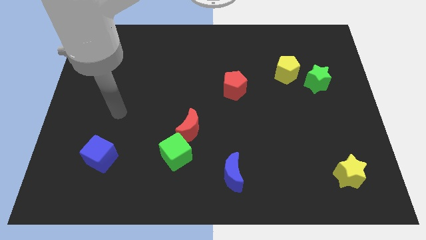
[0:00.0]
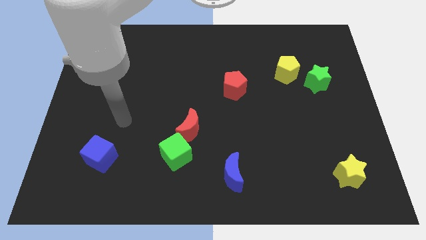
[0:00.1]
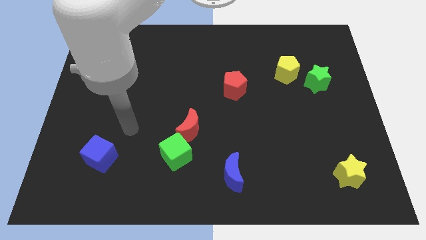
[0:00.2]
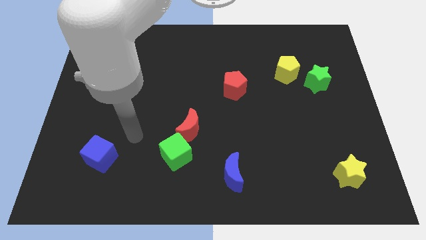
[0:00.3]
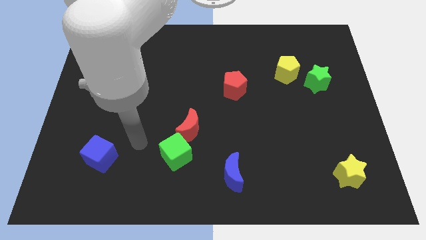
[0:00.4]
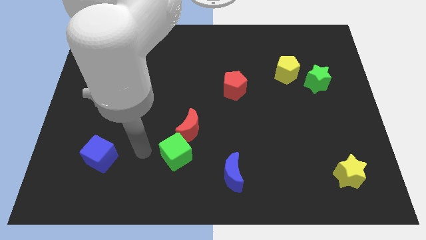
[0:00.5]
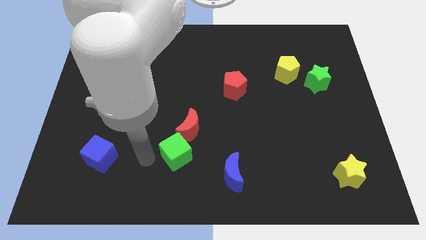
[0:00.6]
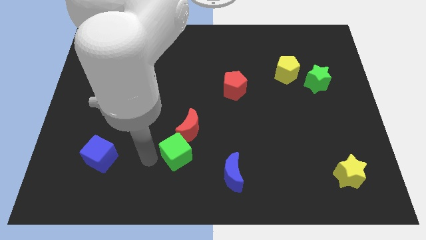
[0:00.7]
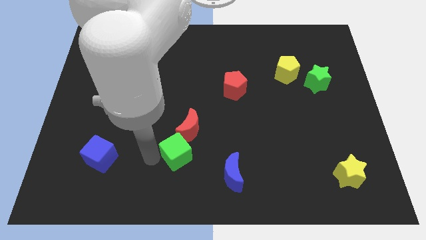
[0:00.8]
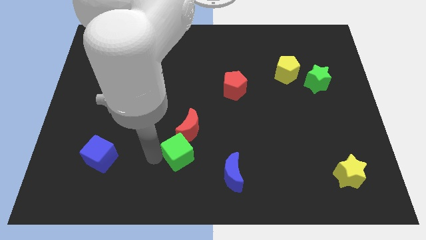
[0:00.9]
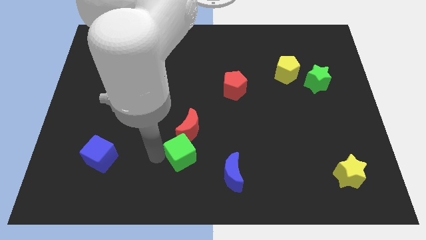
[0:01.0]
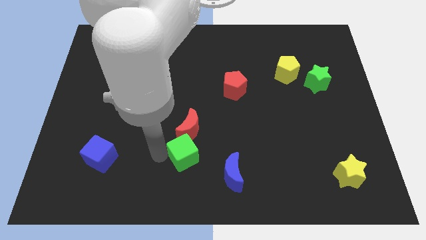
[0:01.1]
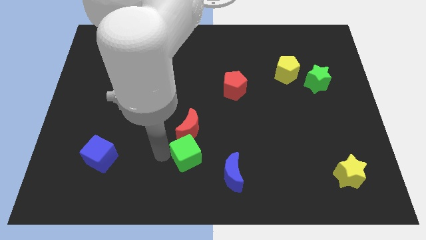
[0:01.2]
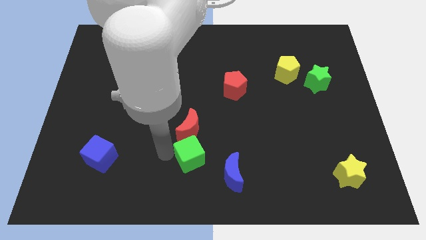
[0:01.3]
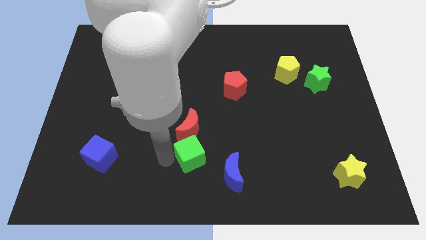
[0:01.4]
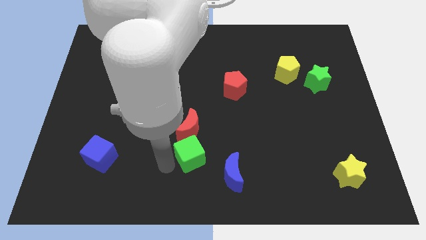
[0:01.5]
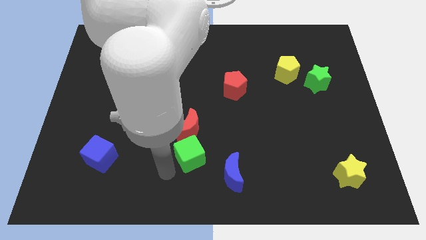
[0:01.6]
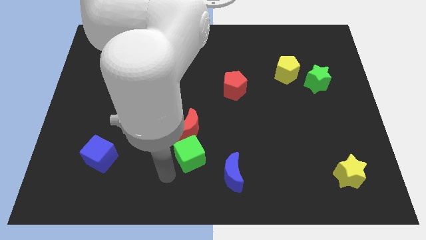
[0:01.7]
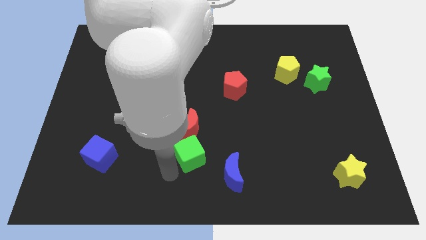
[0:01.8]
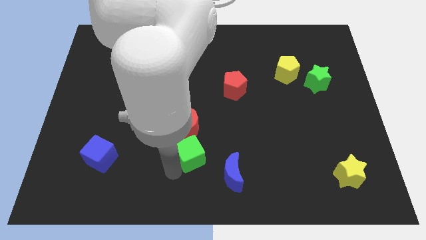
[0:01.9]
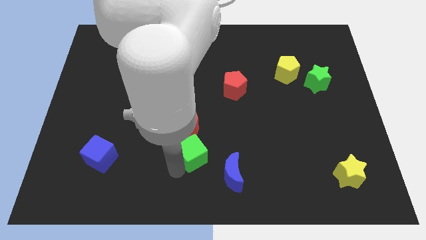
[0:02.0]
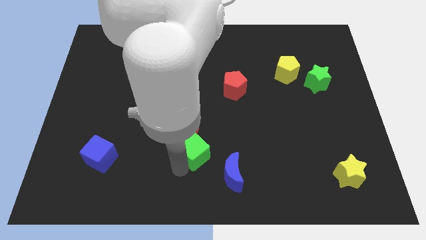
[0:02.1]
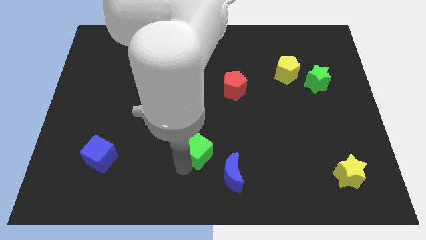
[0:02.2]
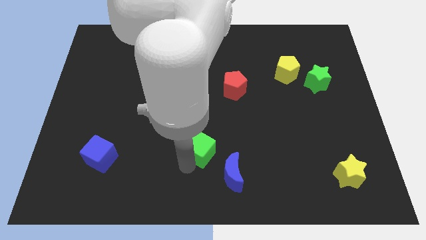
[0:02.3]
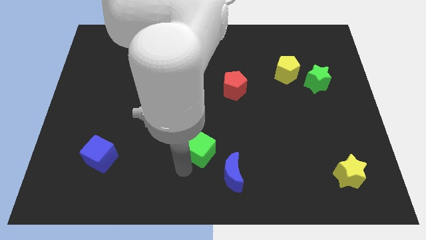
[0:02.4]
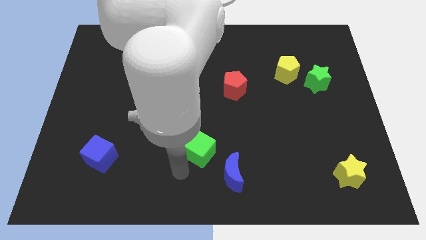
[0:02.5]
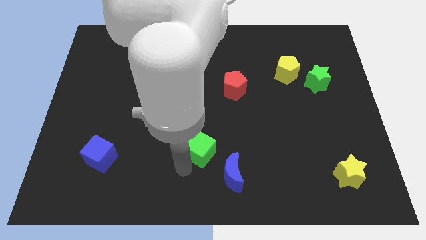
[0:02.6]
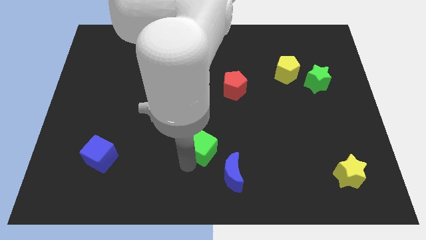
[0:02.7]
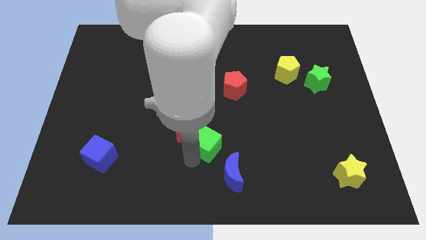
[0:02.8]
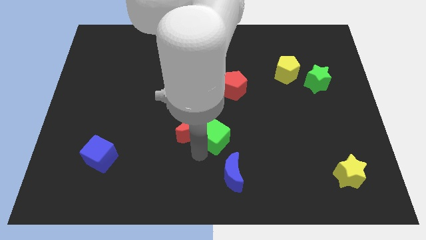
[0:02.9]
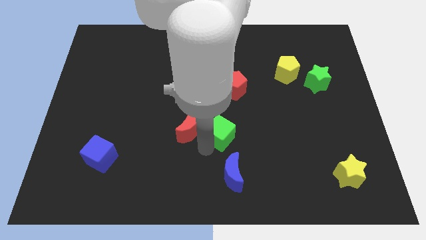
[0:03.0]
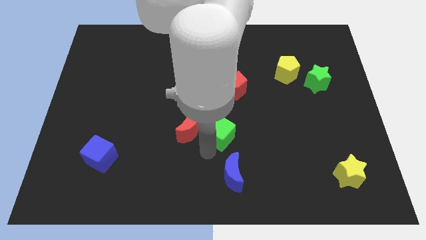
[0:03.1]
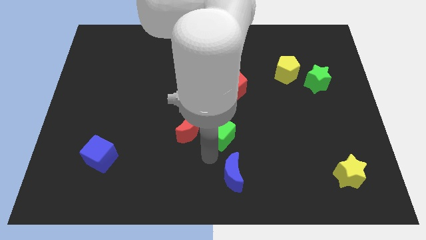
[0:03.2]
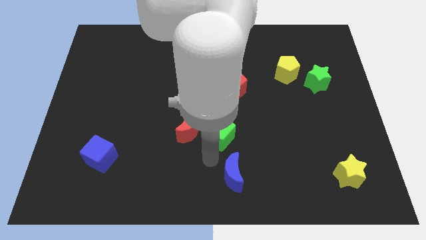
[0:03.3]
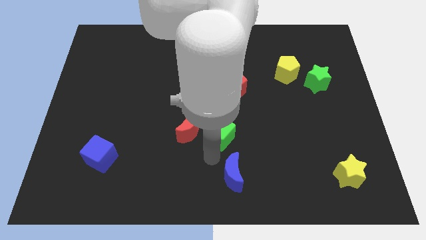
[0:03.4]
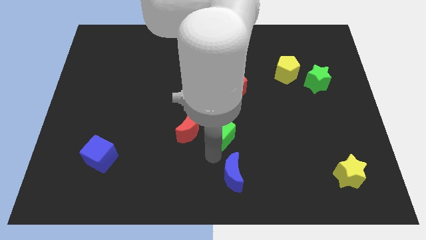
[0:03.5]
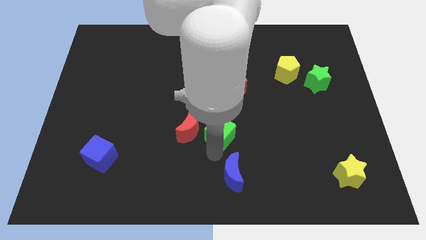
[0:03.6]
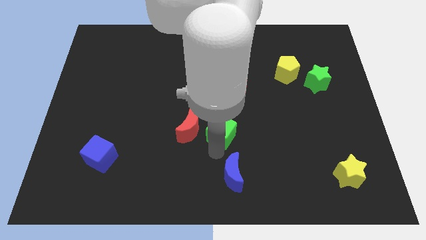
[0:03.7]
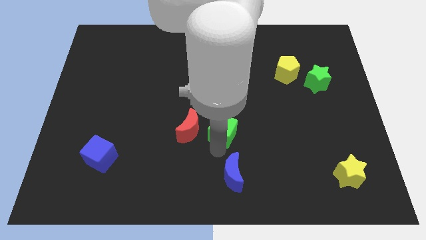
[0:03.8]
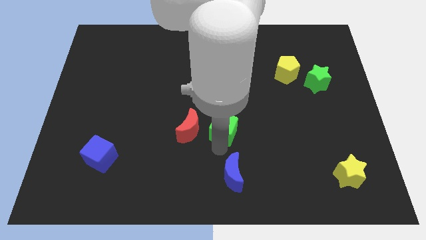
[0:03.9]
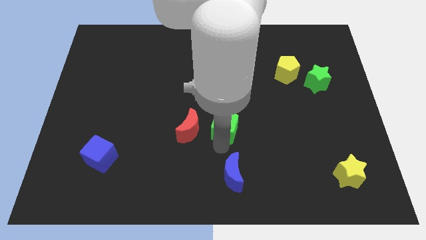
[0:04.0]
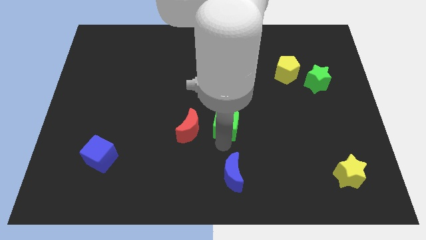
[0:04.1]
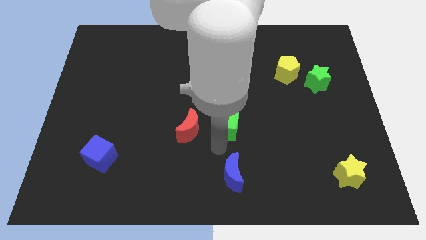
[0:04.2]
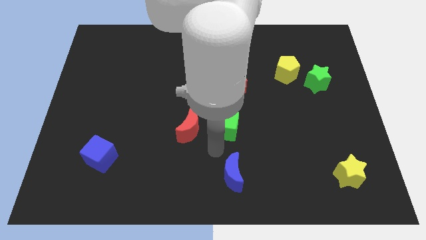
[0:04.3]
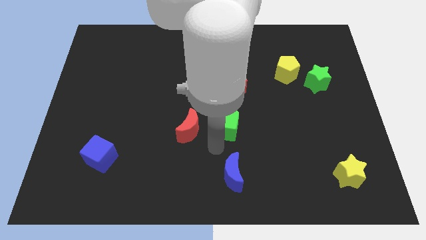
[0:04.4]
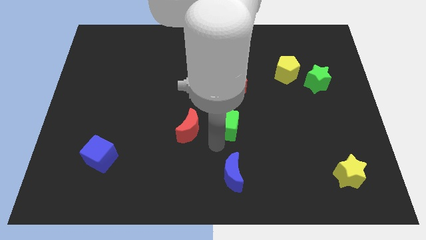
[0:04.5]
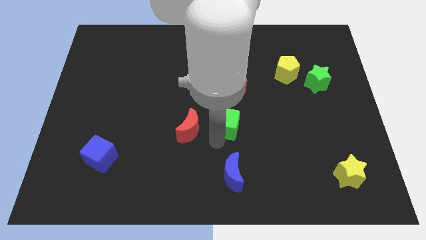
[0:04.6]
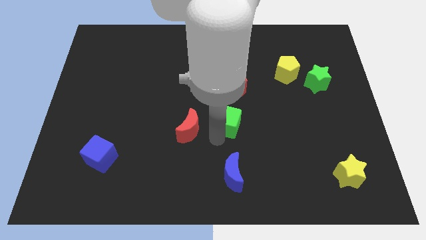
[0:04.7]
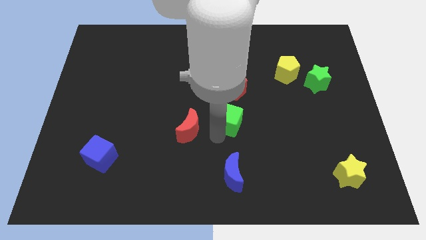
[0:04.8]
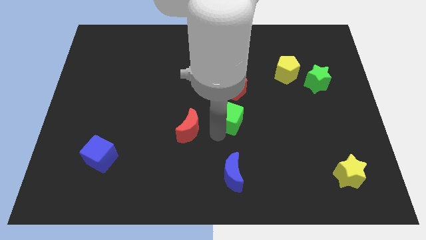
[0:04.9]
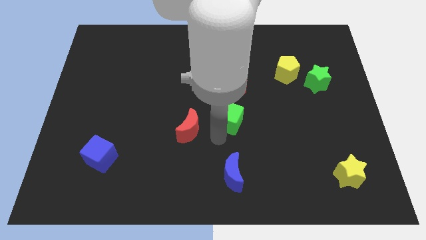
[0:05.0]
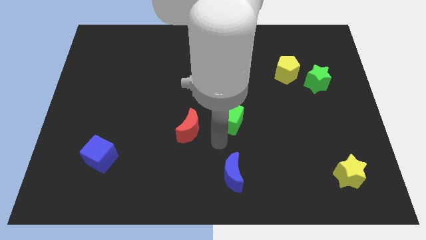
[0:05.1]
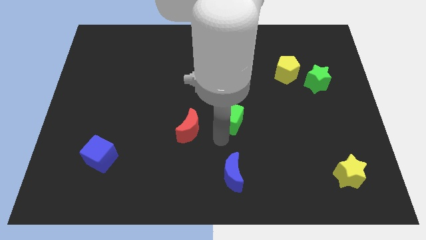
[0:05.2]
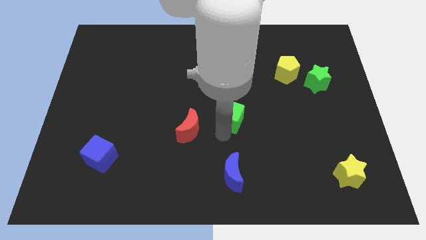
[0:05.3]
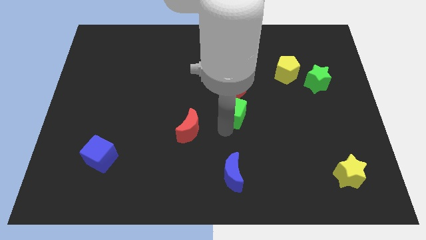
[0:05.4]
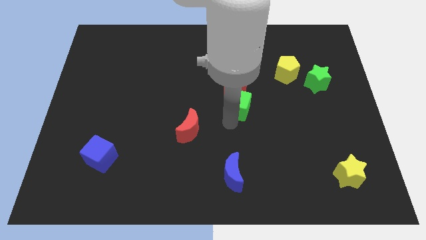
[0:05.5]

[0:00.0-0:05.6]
push the green cube to the red pentagon

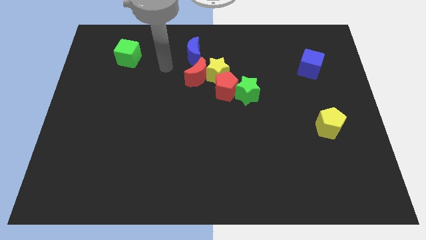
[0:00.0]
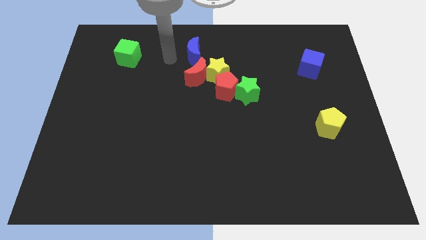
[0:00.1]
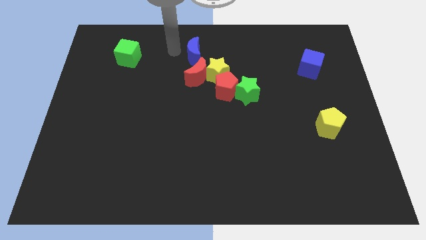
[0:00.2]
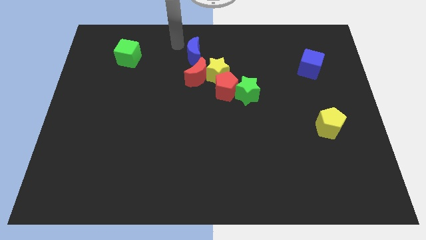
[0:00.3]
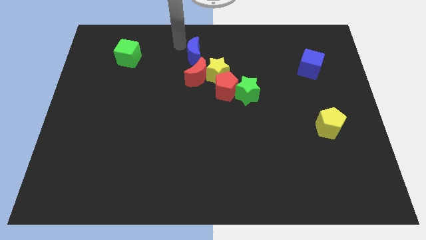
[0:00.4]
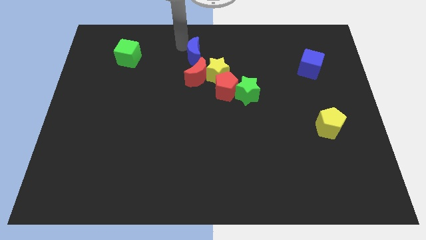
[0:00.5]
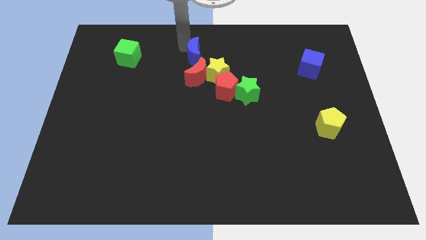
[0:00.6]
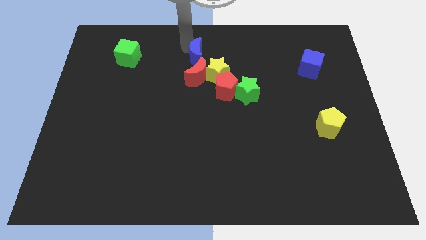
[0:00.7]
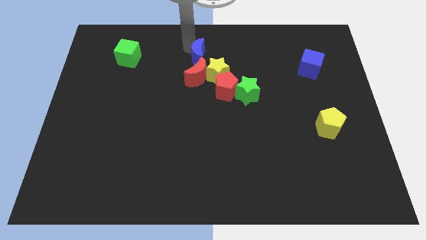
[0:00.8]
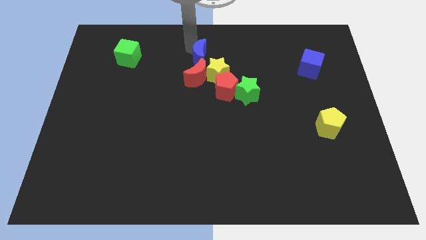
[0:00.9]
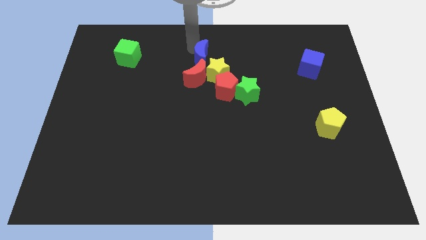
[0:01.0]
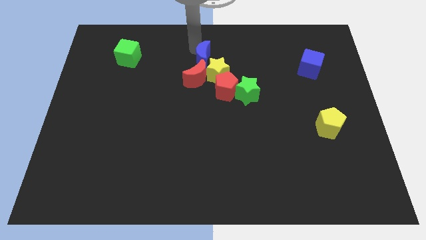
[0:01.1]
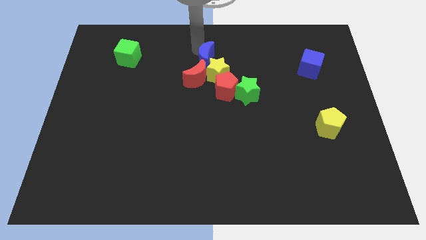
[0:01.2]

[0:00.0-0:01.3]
push the blue moon close to the yellow star

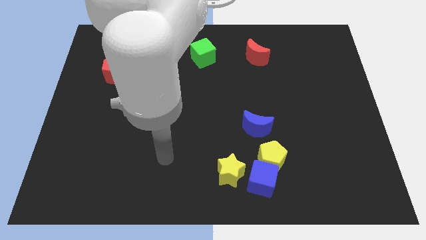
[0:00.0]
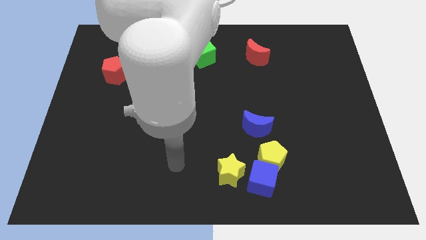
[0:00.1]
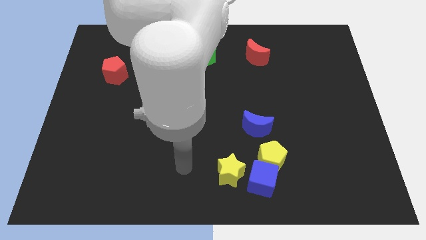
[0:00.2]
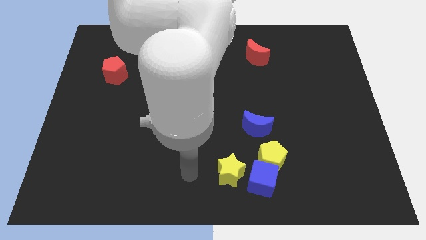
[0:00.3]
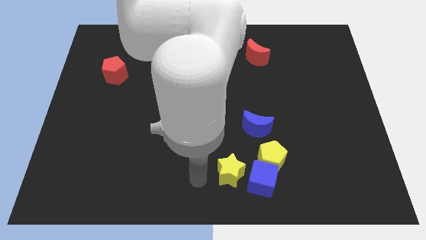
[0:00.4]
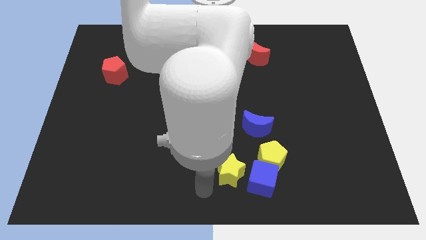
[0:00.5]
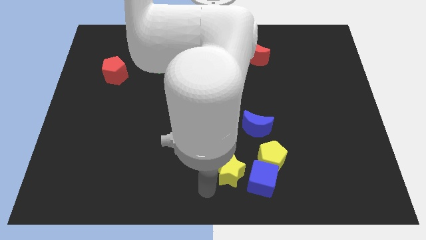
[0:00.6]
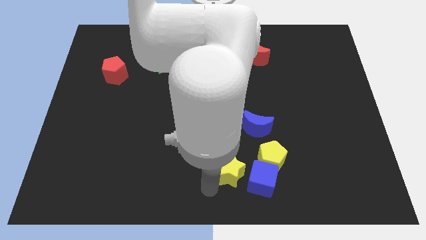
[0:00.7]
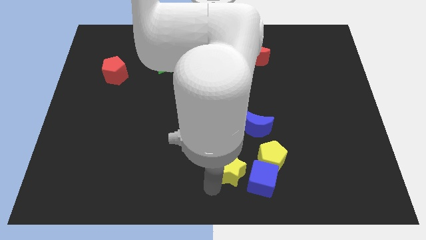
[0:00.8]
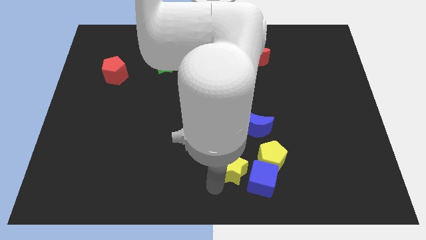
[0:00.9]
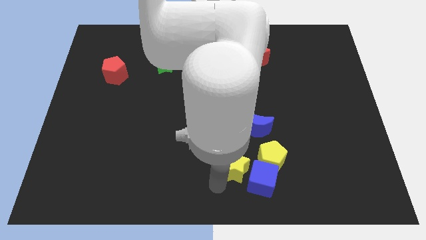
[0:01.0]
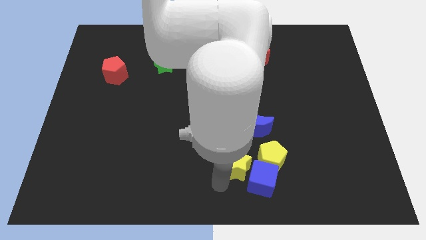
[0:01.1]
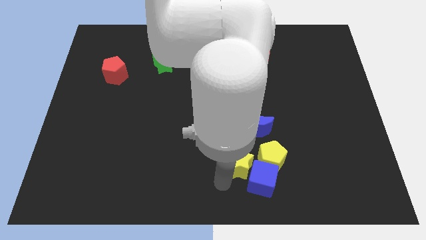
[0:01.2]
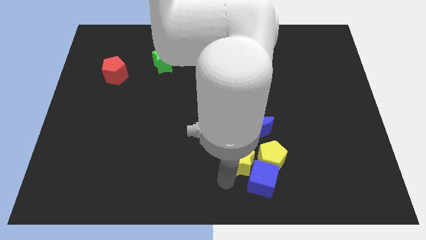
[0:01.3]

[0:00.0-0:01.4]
move the yellow star next to the yellow pentagon
